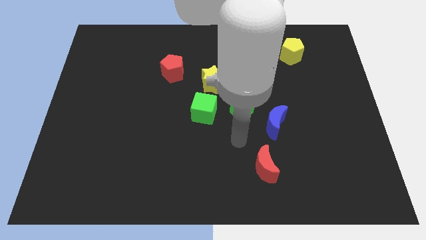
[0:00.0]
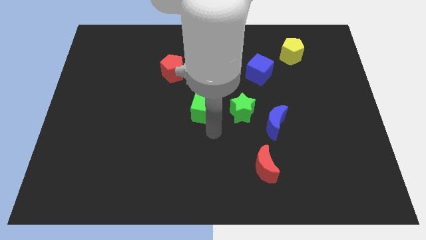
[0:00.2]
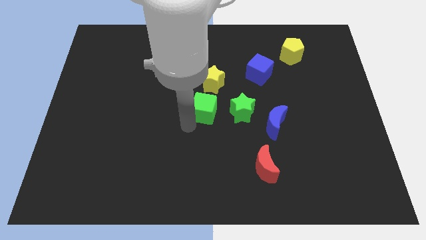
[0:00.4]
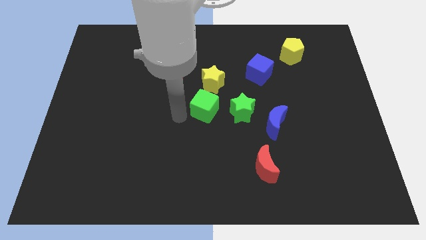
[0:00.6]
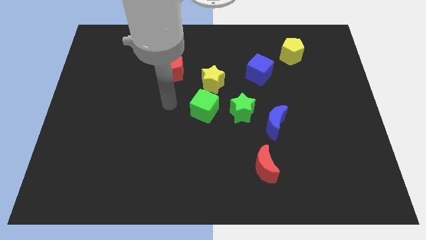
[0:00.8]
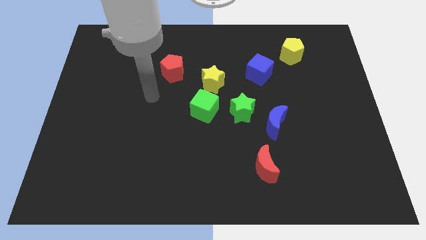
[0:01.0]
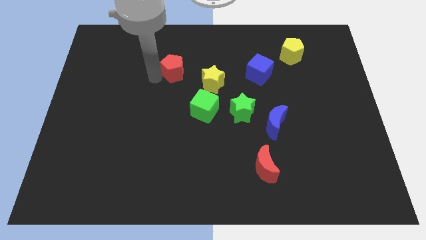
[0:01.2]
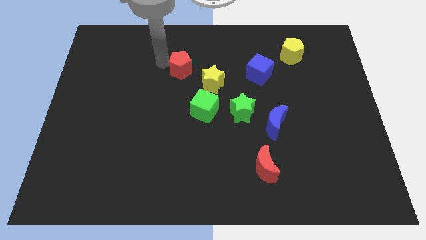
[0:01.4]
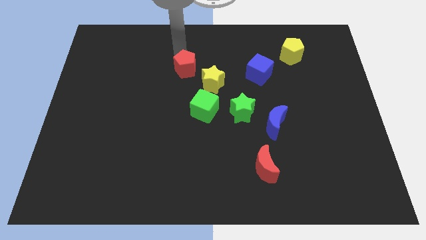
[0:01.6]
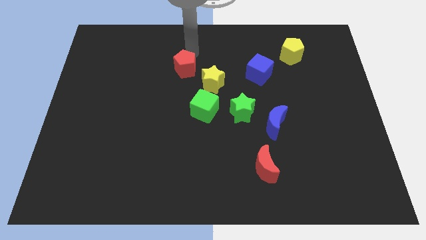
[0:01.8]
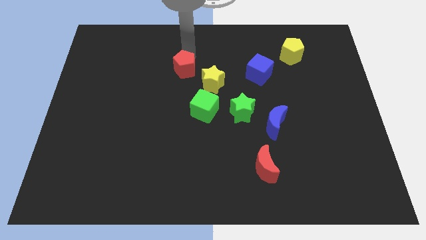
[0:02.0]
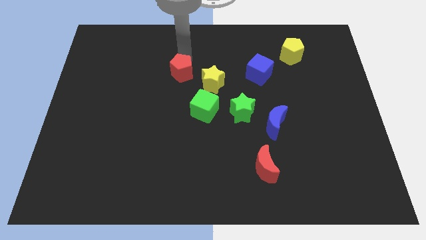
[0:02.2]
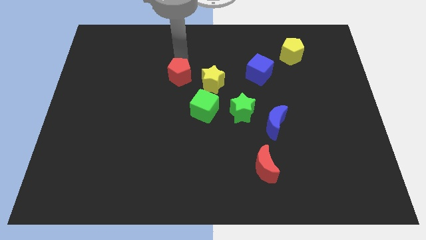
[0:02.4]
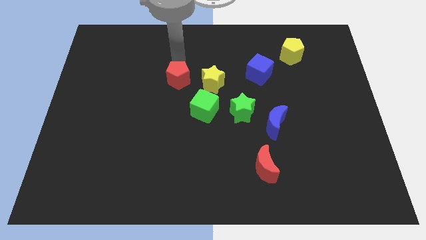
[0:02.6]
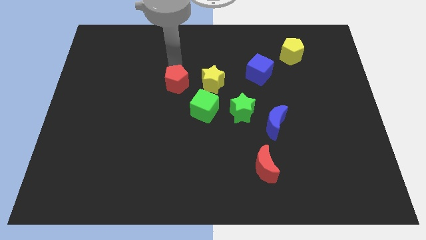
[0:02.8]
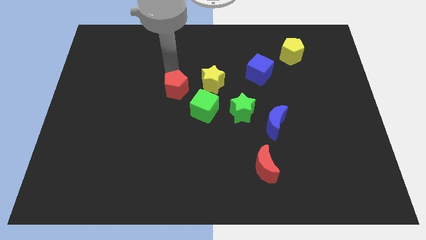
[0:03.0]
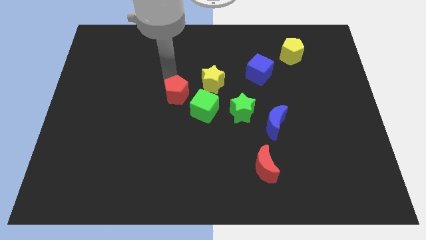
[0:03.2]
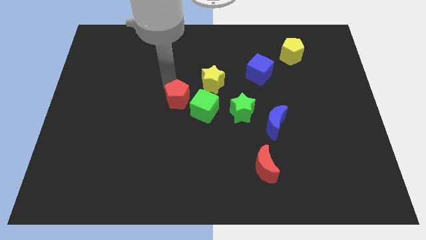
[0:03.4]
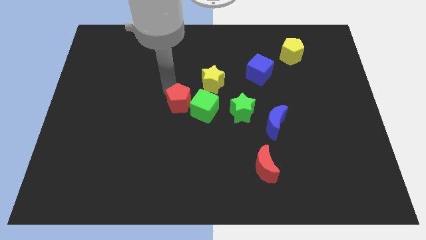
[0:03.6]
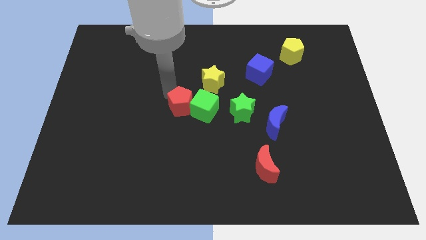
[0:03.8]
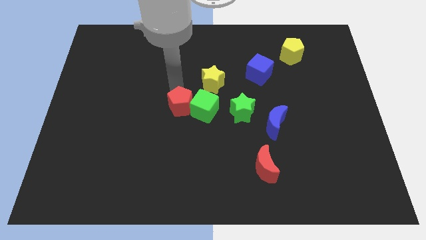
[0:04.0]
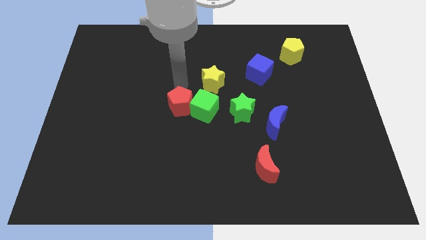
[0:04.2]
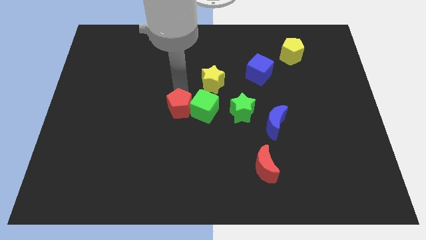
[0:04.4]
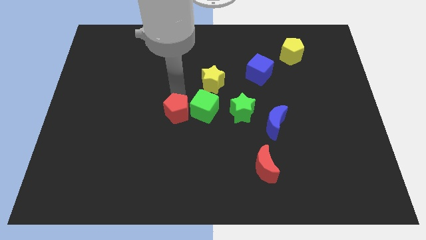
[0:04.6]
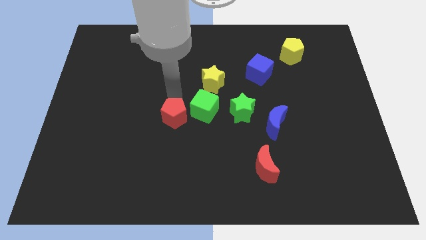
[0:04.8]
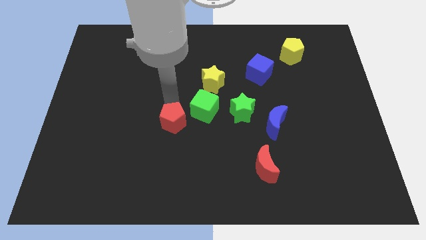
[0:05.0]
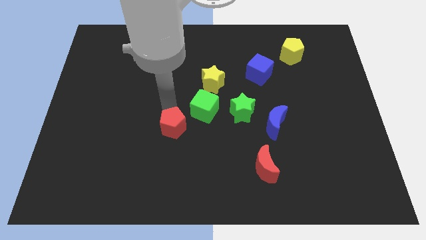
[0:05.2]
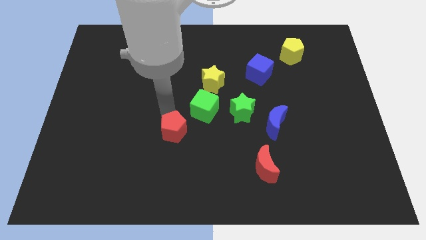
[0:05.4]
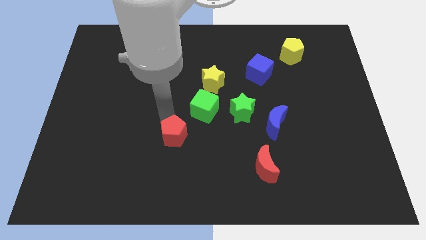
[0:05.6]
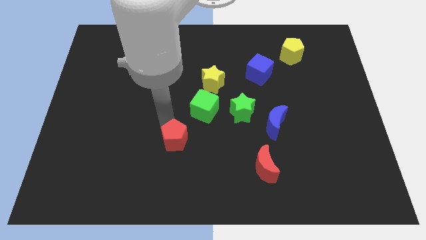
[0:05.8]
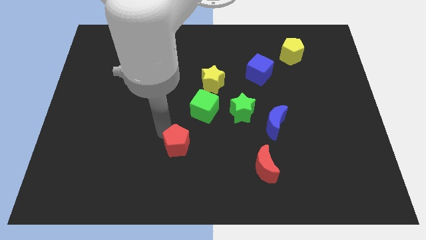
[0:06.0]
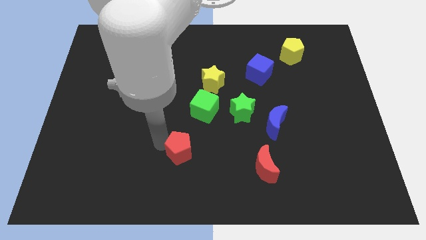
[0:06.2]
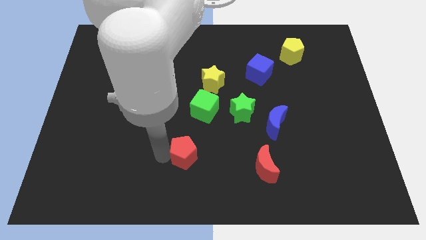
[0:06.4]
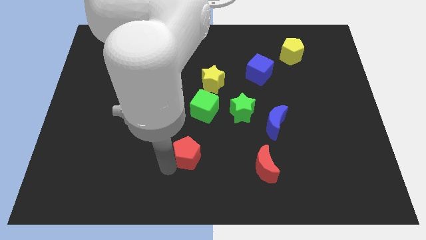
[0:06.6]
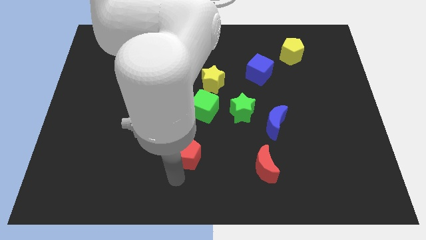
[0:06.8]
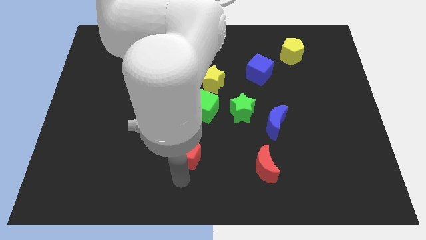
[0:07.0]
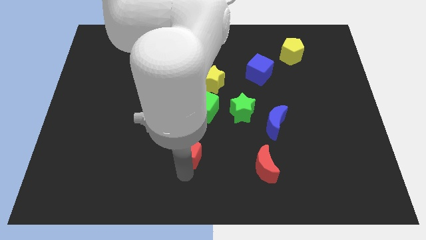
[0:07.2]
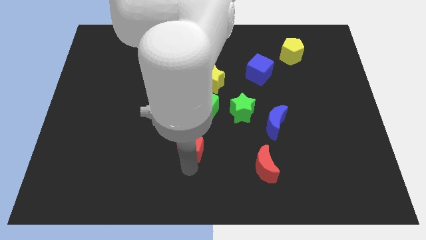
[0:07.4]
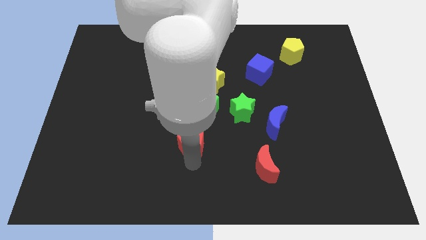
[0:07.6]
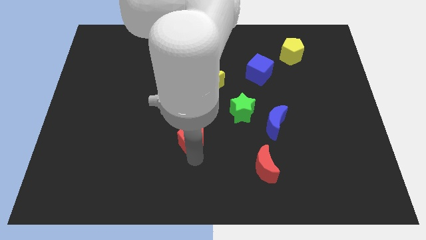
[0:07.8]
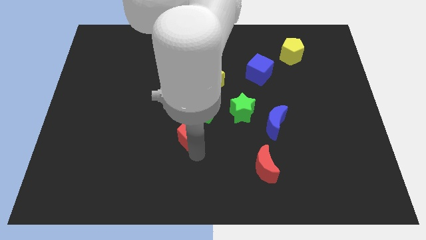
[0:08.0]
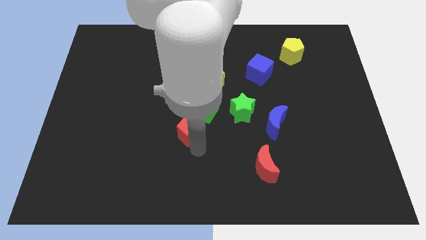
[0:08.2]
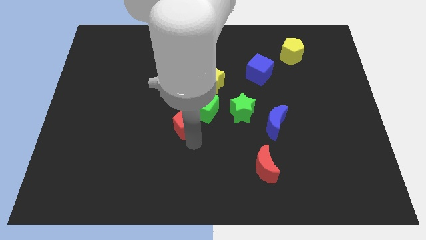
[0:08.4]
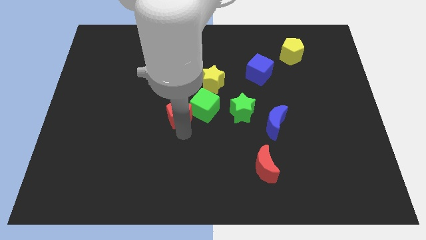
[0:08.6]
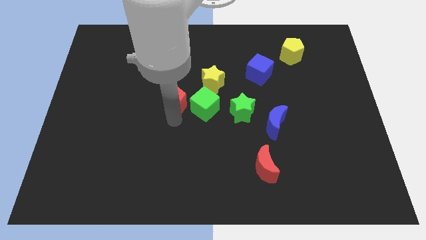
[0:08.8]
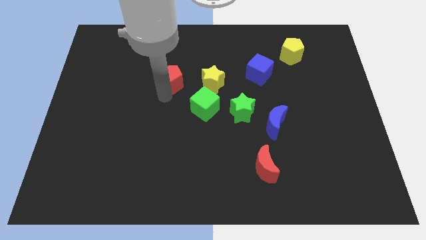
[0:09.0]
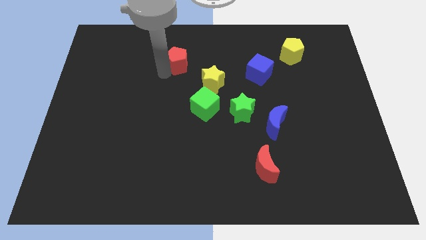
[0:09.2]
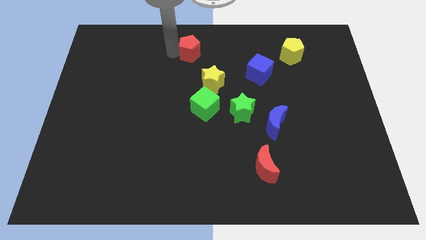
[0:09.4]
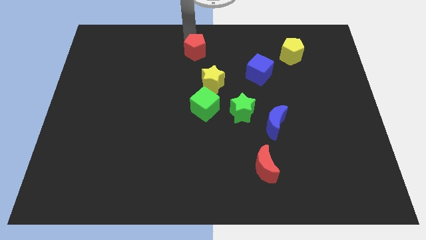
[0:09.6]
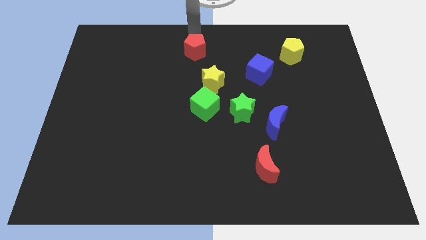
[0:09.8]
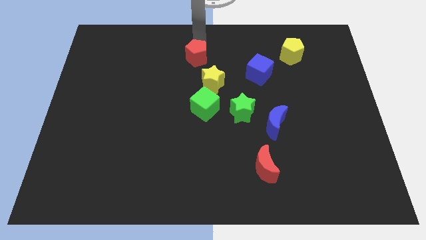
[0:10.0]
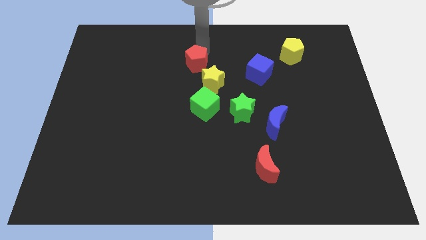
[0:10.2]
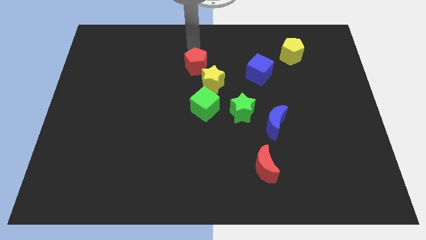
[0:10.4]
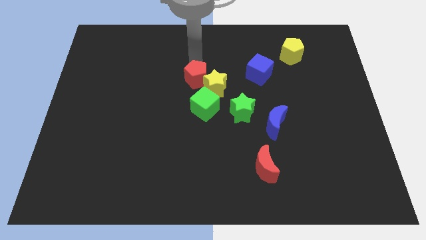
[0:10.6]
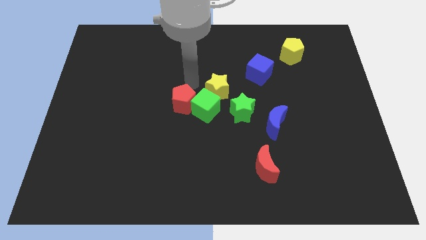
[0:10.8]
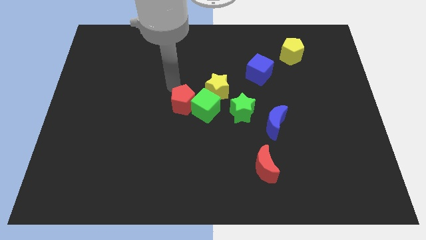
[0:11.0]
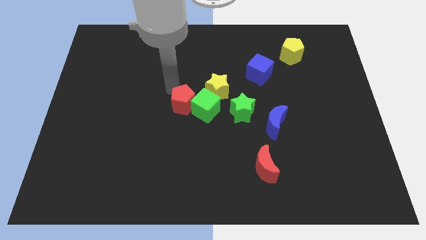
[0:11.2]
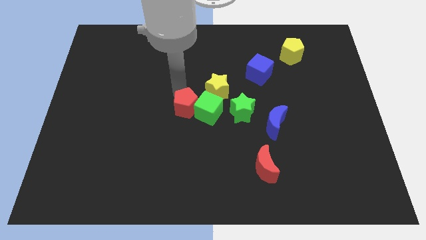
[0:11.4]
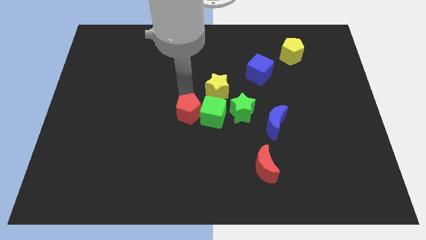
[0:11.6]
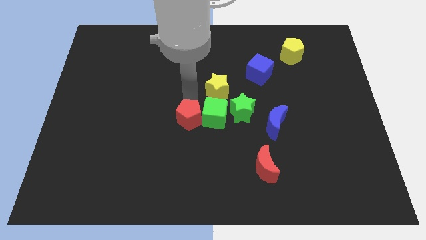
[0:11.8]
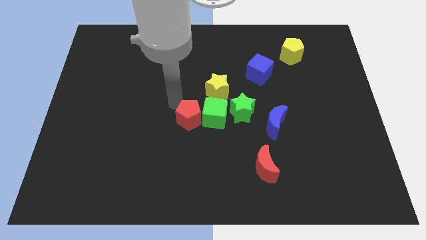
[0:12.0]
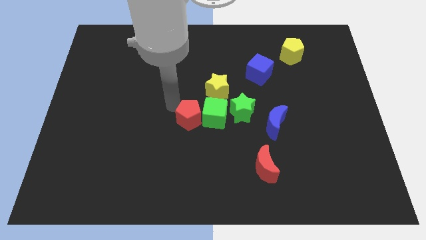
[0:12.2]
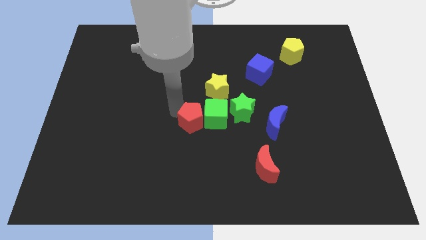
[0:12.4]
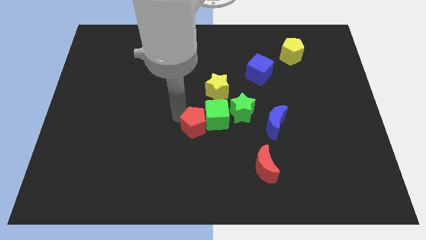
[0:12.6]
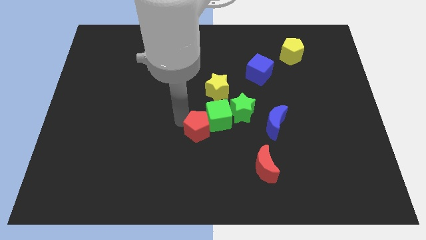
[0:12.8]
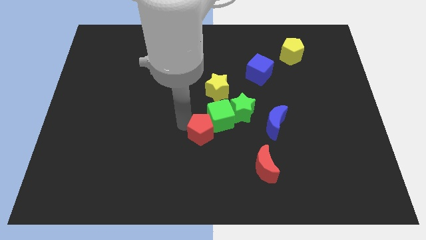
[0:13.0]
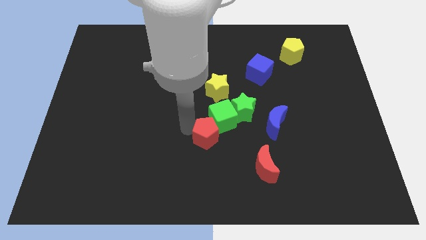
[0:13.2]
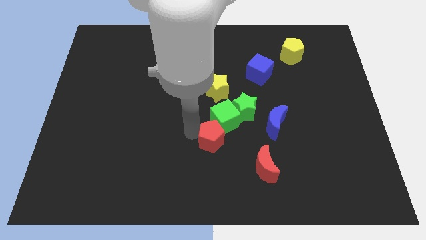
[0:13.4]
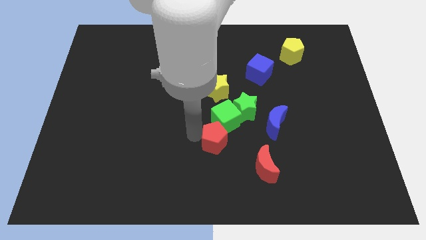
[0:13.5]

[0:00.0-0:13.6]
push the red pentagon diagonally down and to the right

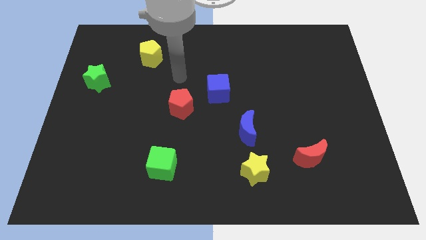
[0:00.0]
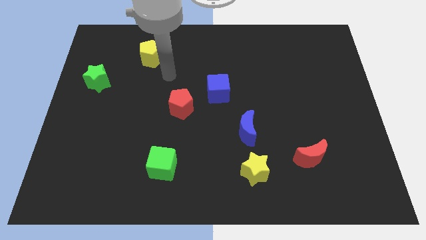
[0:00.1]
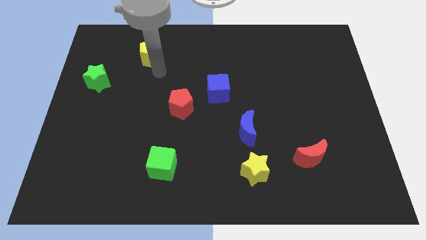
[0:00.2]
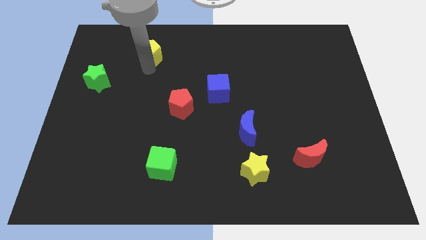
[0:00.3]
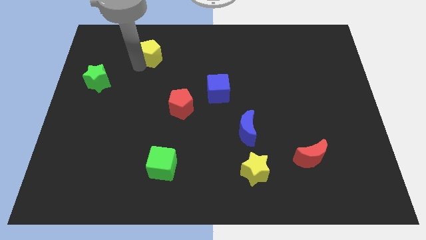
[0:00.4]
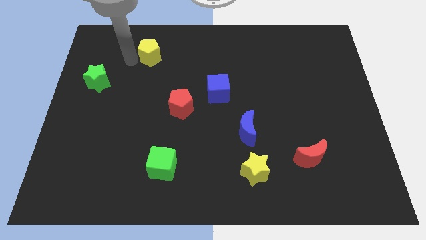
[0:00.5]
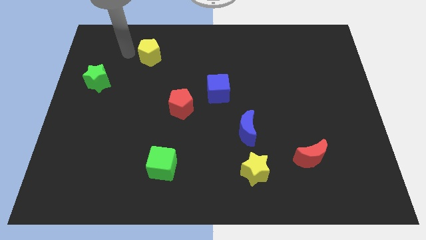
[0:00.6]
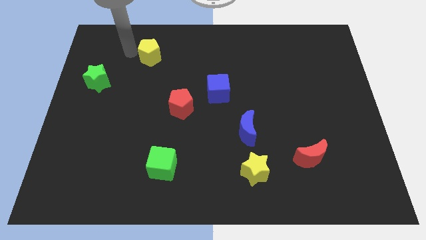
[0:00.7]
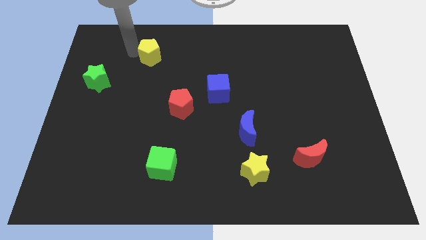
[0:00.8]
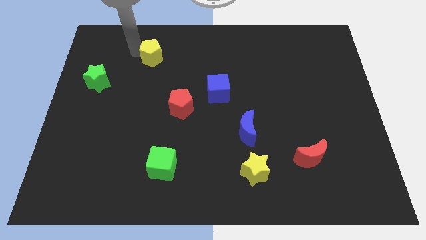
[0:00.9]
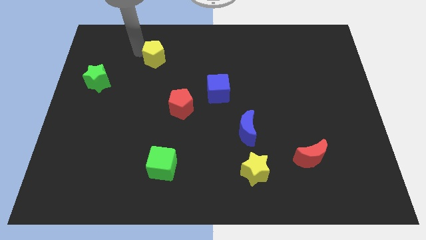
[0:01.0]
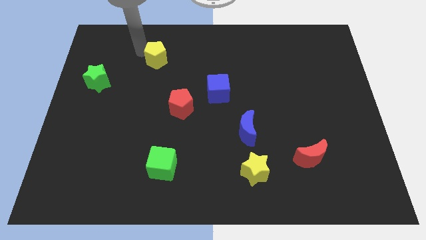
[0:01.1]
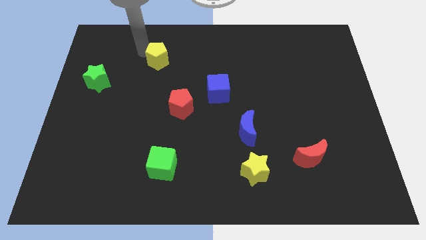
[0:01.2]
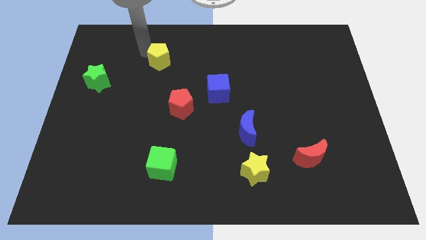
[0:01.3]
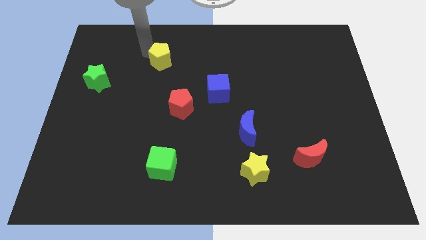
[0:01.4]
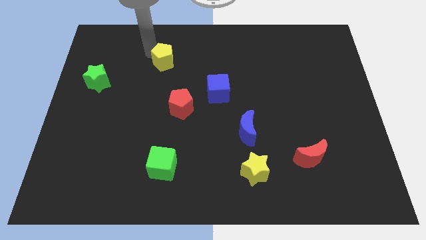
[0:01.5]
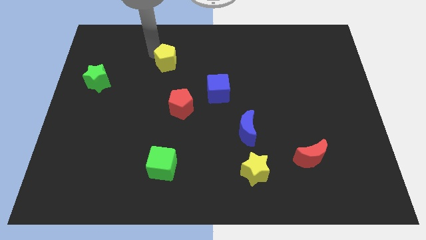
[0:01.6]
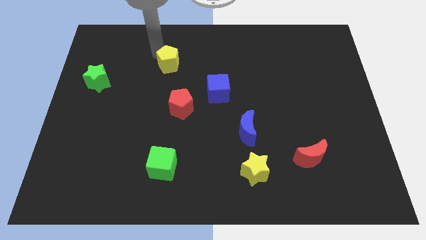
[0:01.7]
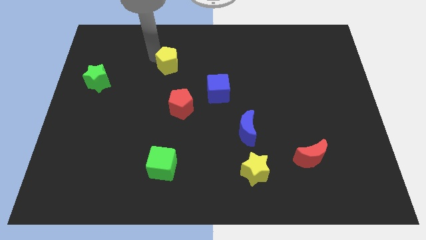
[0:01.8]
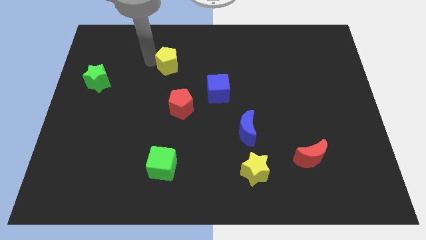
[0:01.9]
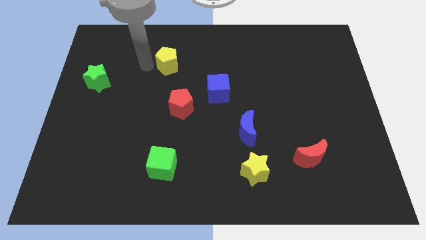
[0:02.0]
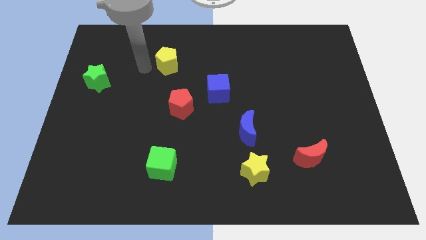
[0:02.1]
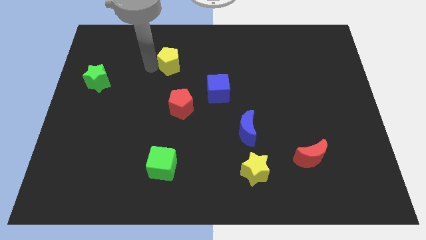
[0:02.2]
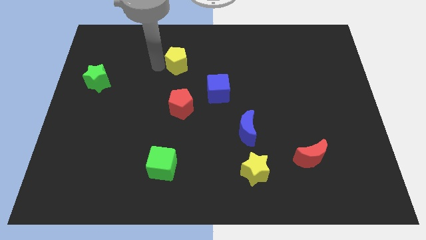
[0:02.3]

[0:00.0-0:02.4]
slide the yellow pentagon to the right a bit
